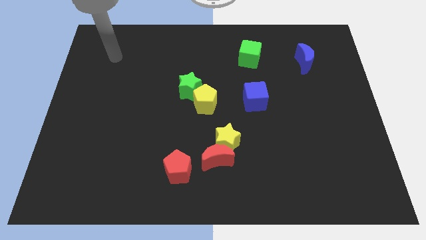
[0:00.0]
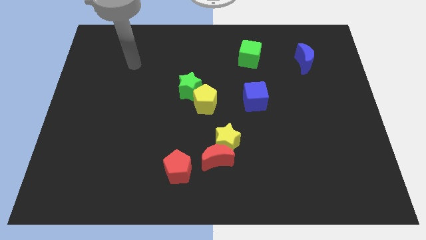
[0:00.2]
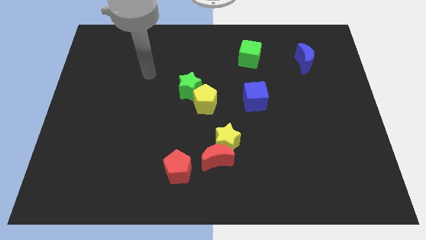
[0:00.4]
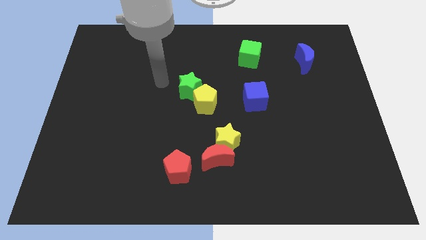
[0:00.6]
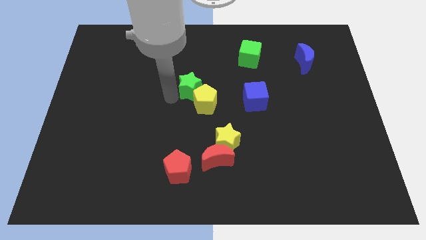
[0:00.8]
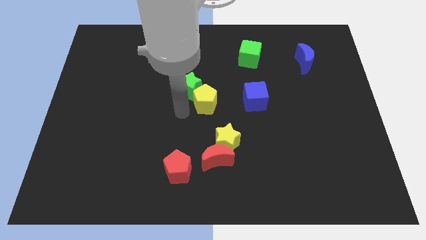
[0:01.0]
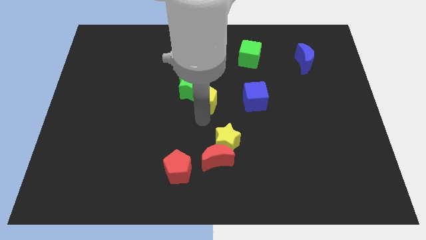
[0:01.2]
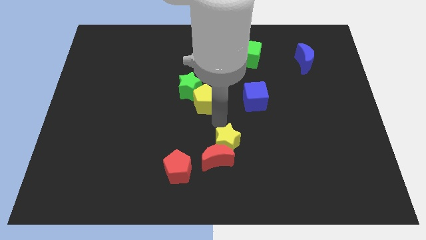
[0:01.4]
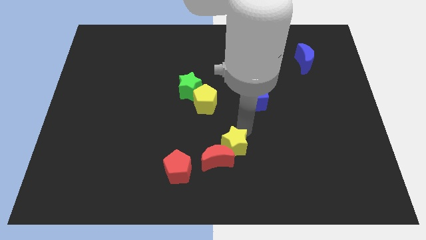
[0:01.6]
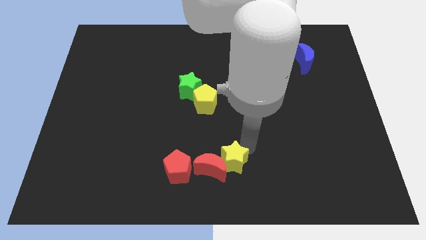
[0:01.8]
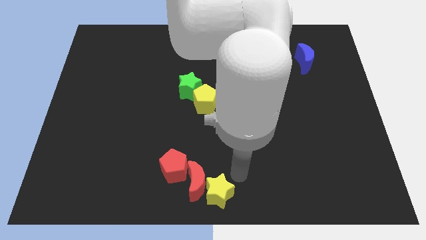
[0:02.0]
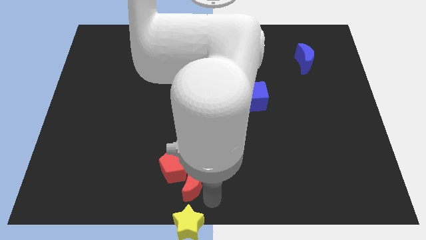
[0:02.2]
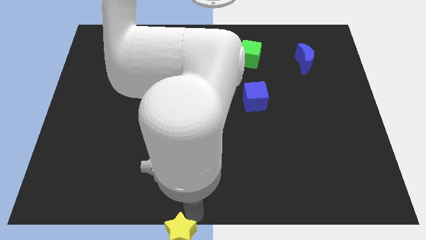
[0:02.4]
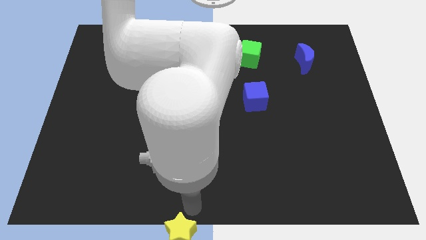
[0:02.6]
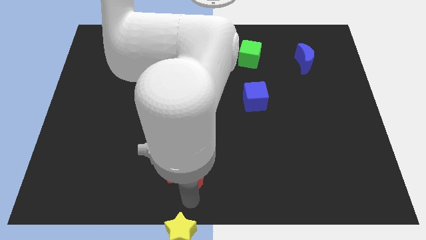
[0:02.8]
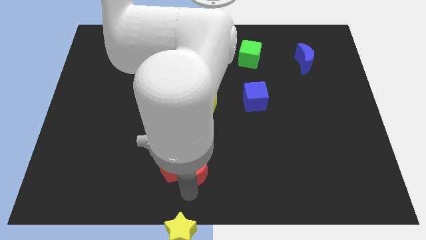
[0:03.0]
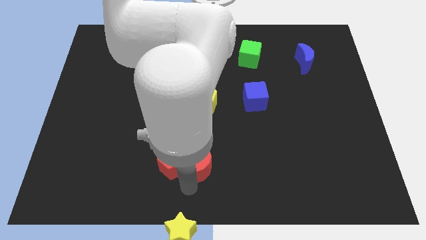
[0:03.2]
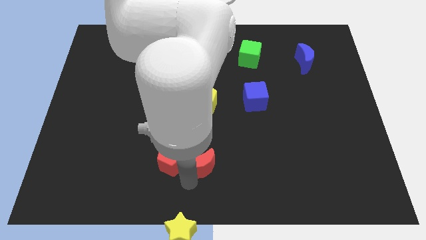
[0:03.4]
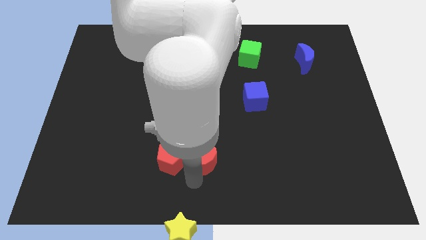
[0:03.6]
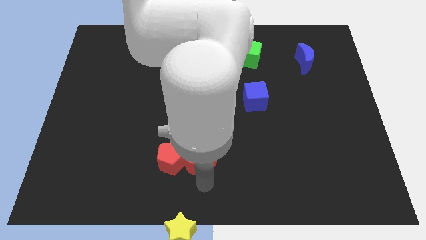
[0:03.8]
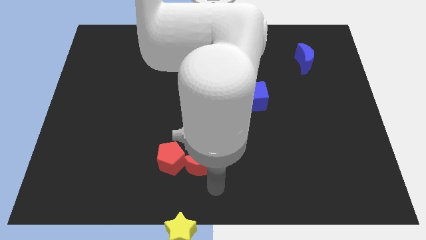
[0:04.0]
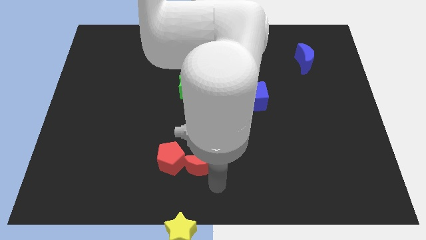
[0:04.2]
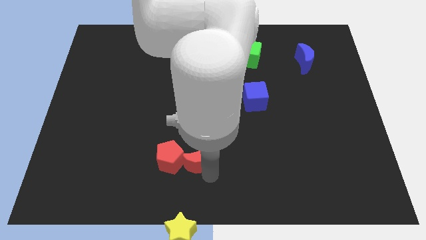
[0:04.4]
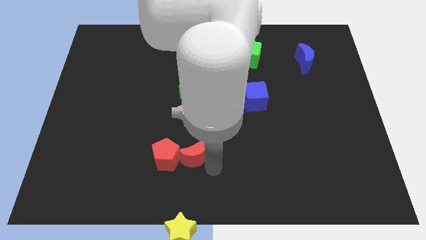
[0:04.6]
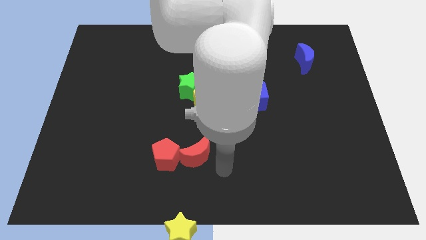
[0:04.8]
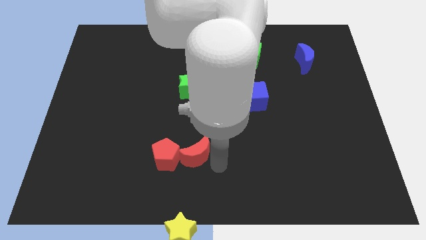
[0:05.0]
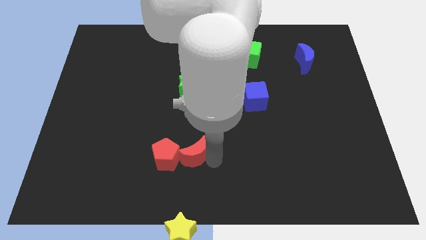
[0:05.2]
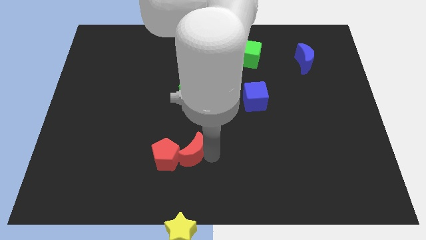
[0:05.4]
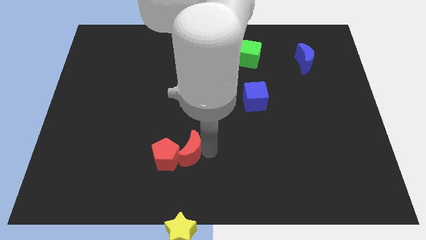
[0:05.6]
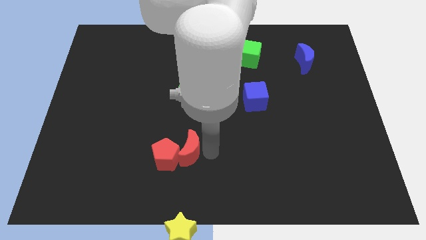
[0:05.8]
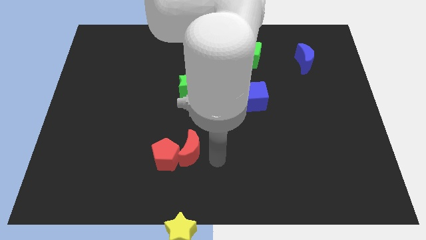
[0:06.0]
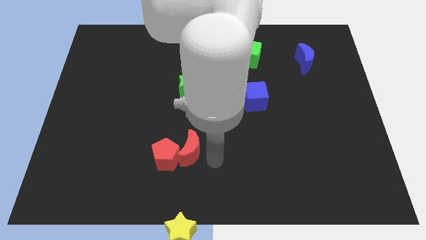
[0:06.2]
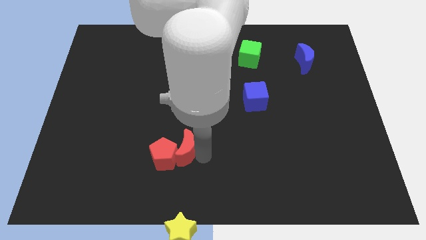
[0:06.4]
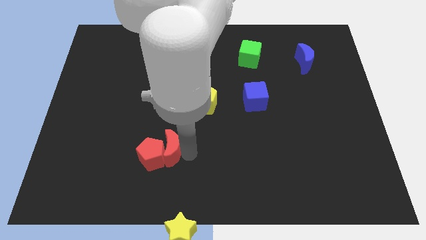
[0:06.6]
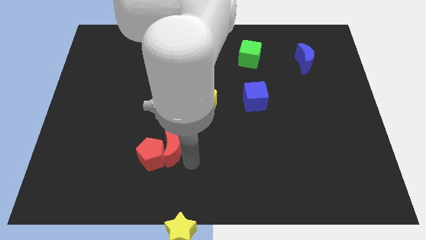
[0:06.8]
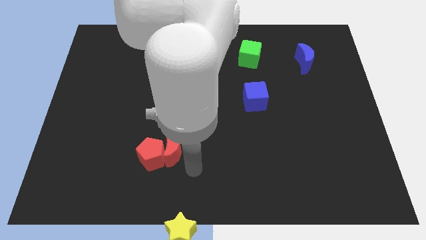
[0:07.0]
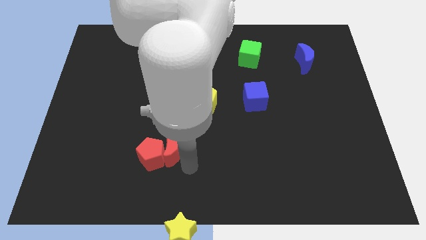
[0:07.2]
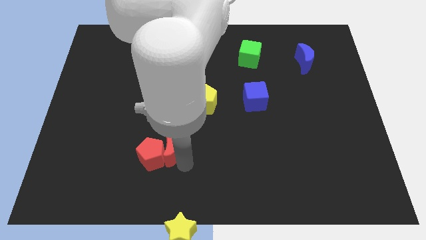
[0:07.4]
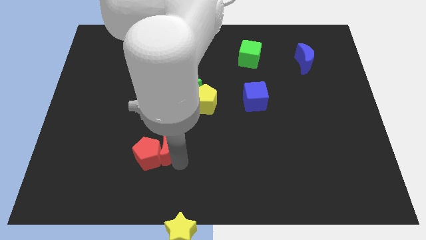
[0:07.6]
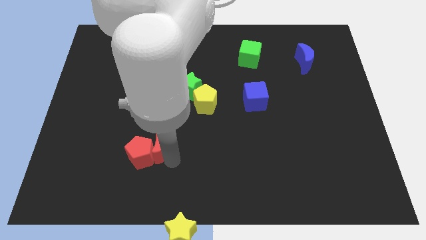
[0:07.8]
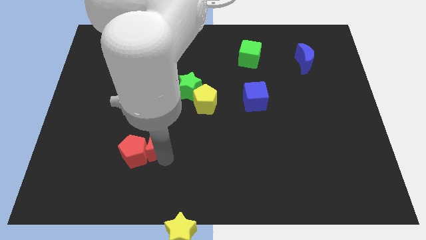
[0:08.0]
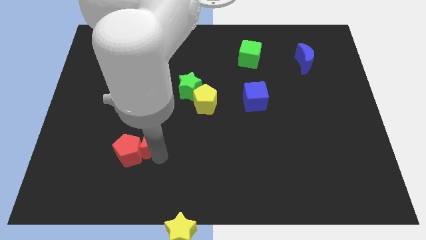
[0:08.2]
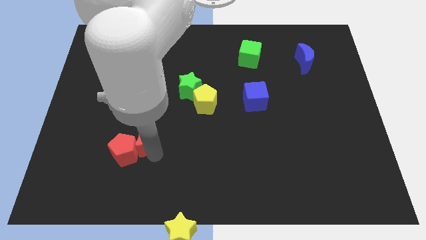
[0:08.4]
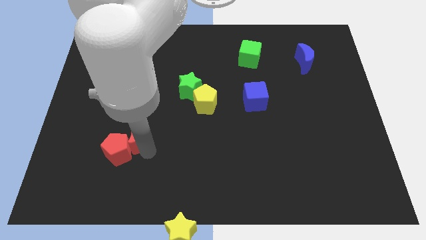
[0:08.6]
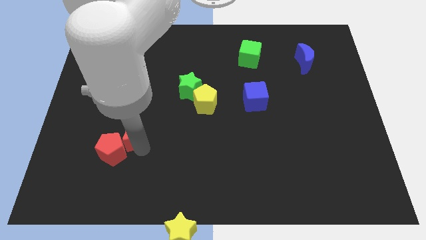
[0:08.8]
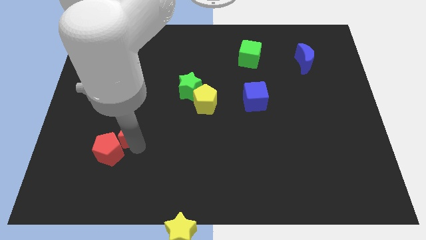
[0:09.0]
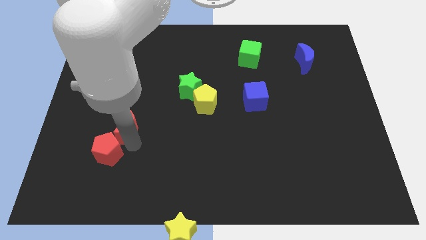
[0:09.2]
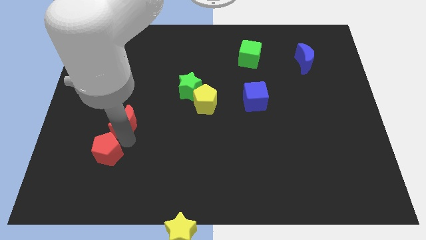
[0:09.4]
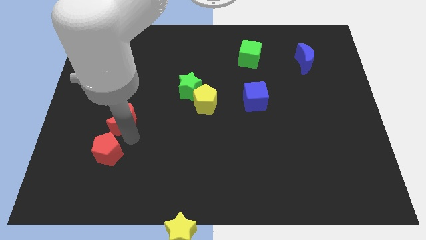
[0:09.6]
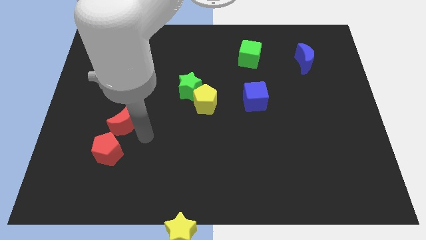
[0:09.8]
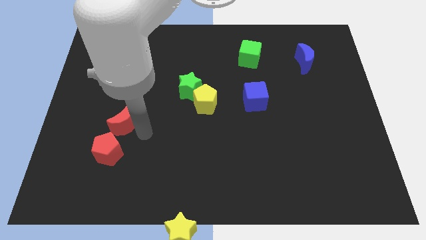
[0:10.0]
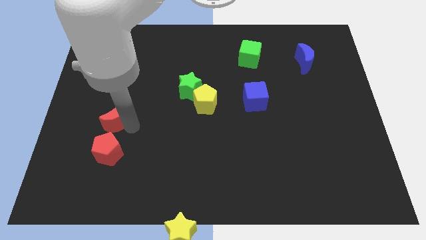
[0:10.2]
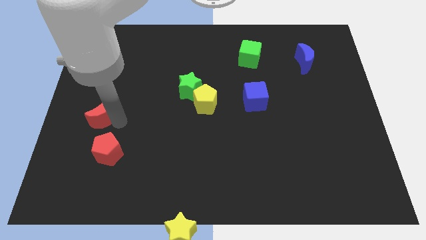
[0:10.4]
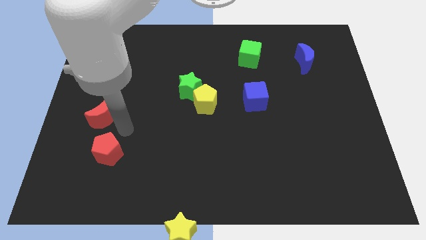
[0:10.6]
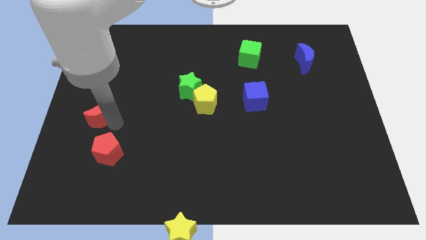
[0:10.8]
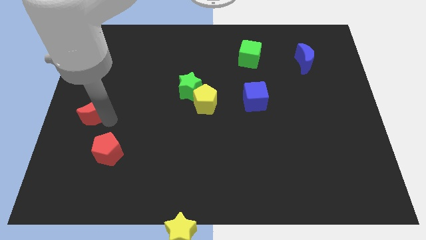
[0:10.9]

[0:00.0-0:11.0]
move the red moon to the left side of the board

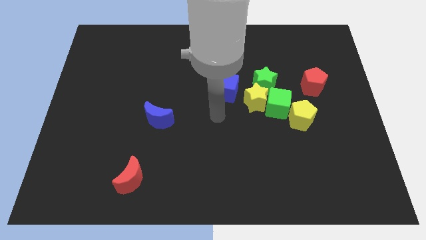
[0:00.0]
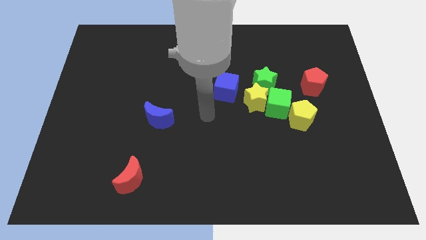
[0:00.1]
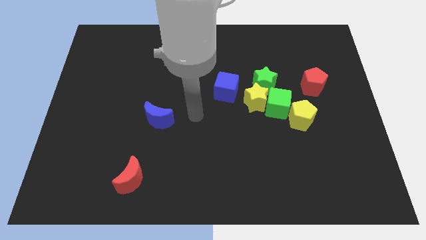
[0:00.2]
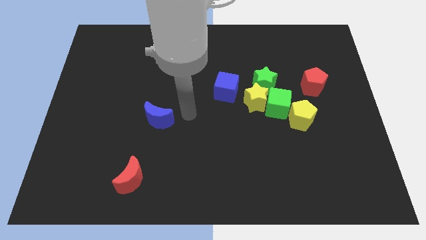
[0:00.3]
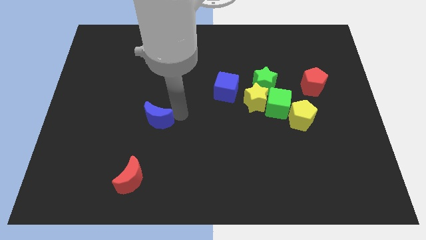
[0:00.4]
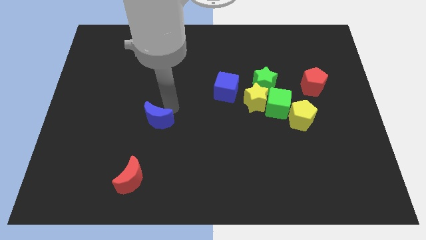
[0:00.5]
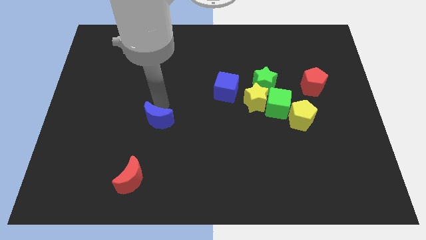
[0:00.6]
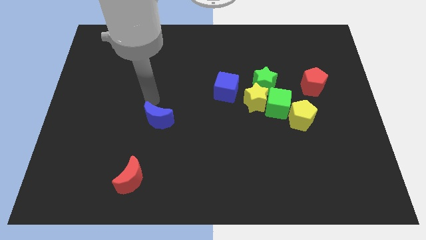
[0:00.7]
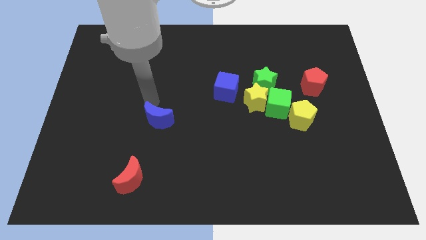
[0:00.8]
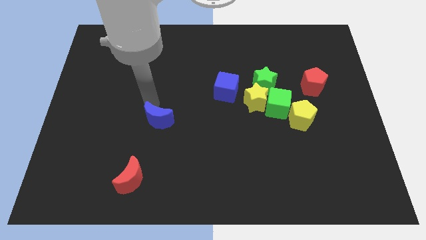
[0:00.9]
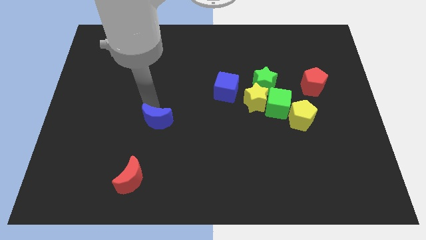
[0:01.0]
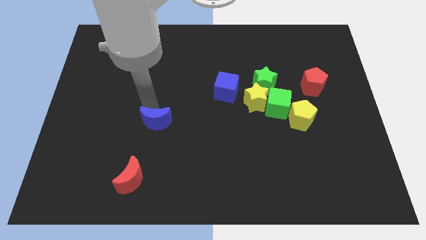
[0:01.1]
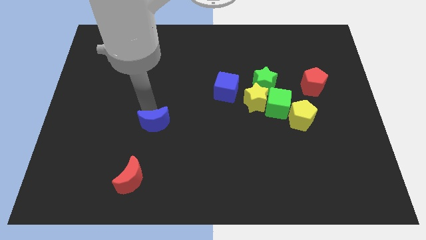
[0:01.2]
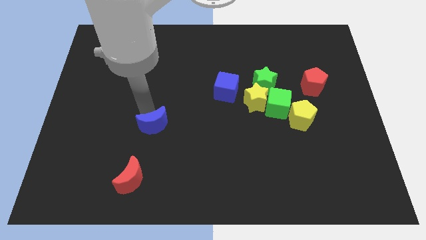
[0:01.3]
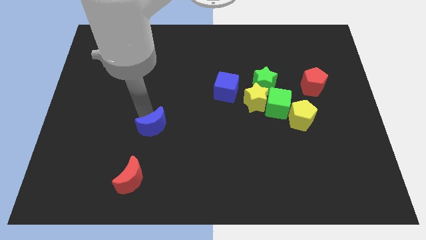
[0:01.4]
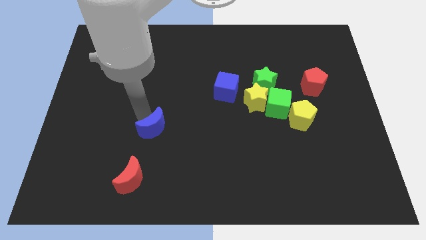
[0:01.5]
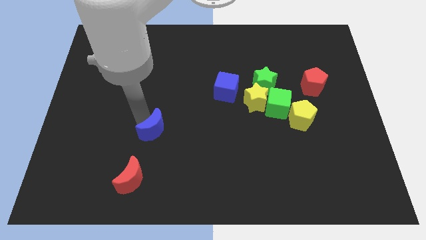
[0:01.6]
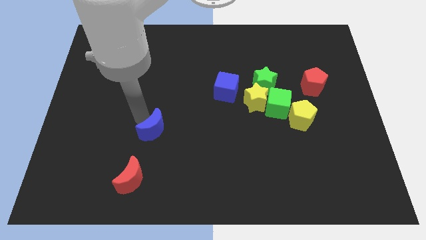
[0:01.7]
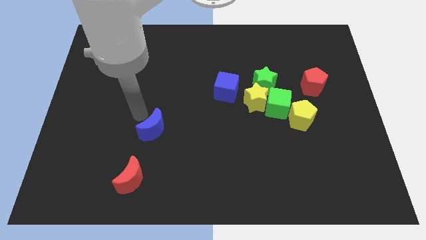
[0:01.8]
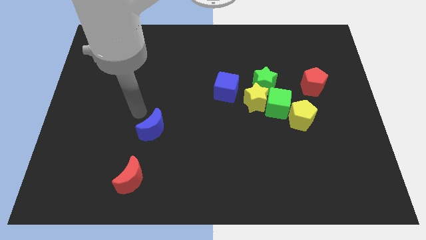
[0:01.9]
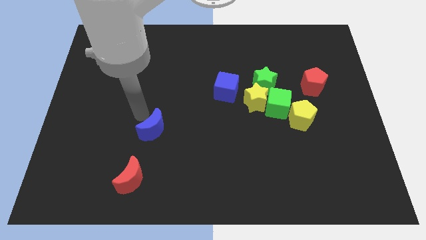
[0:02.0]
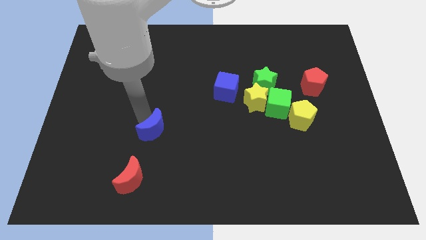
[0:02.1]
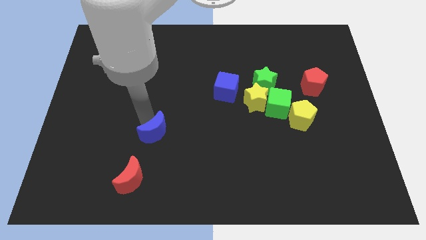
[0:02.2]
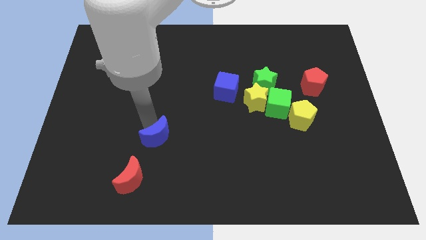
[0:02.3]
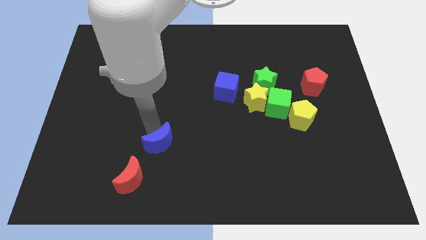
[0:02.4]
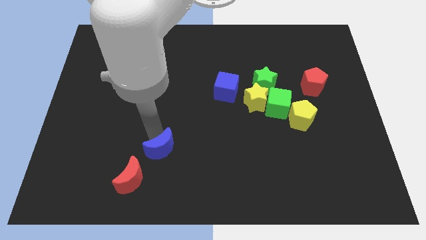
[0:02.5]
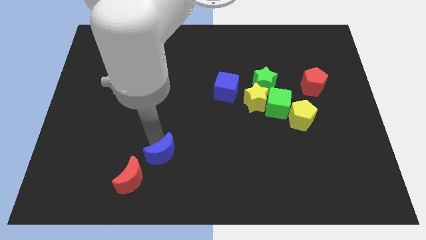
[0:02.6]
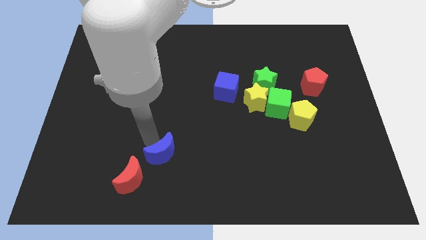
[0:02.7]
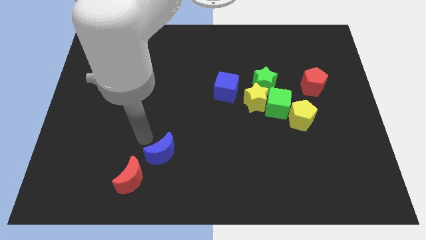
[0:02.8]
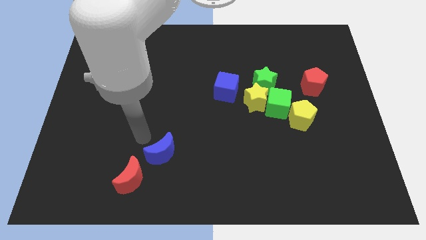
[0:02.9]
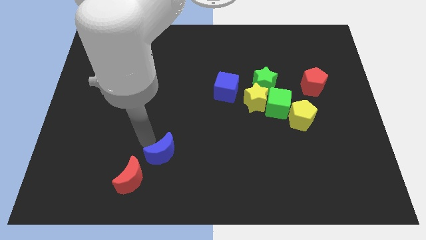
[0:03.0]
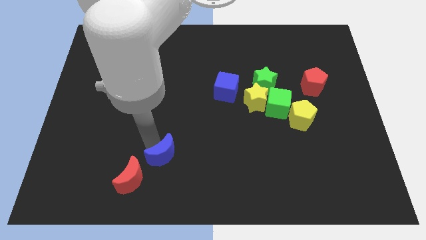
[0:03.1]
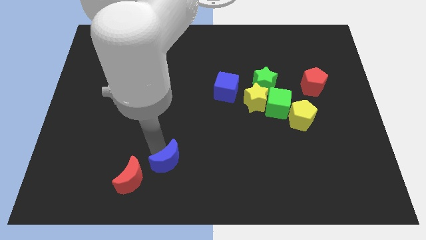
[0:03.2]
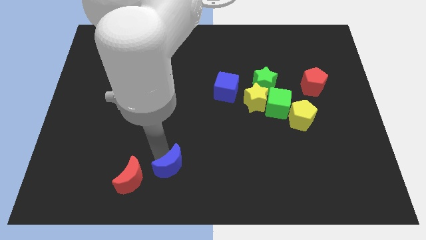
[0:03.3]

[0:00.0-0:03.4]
slide the blue moon to the bottom
